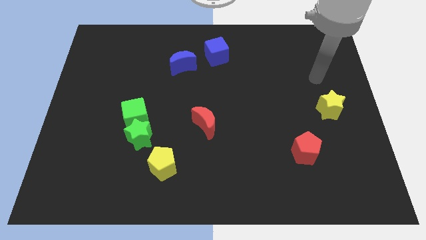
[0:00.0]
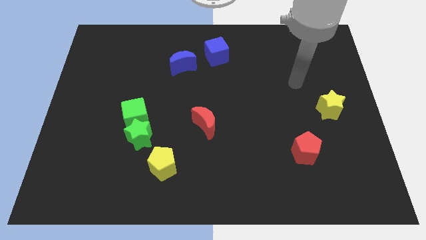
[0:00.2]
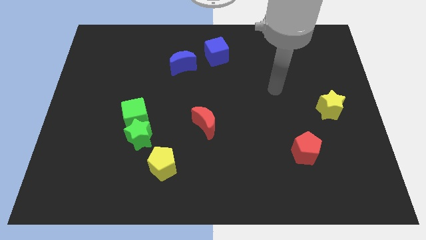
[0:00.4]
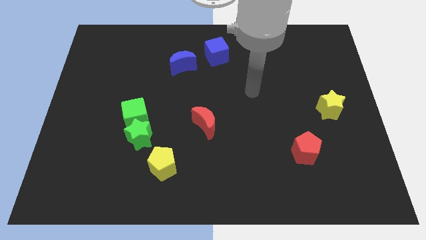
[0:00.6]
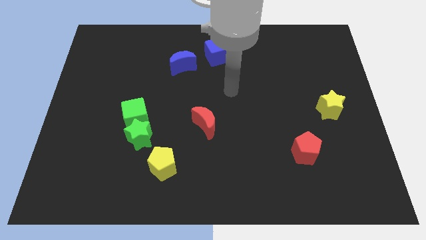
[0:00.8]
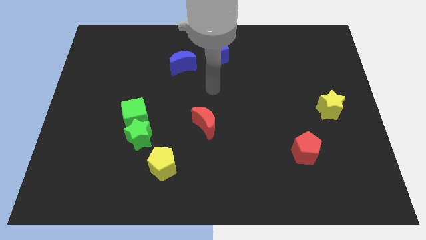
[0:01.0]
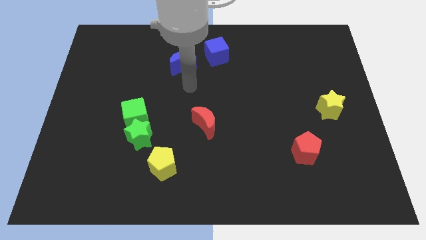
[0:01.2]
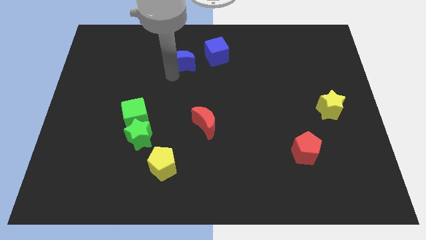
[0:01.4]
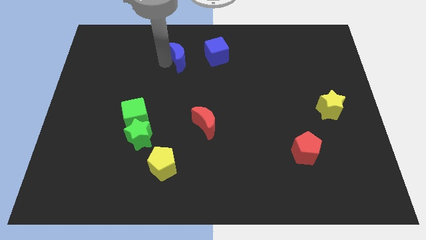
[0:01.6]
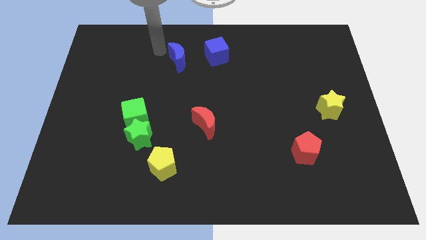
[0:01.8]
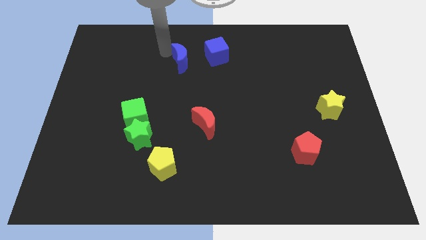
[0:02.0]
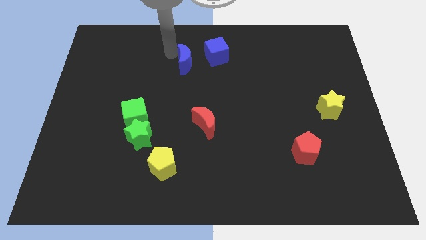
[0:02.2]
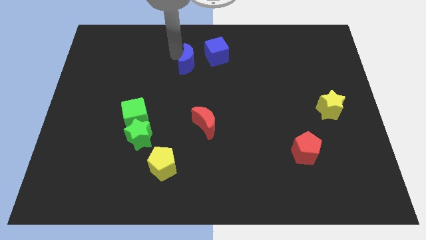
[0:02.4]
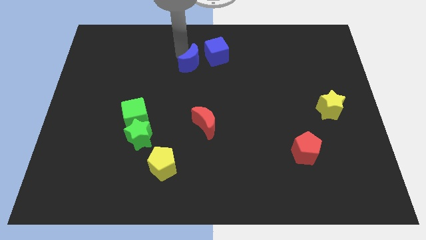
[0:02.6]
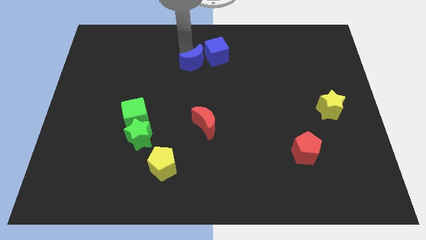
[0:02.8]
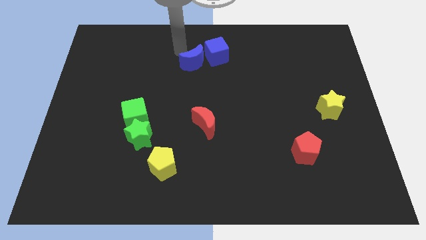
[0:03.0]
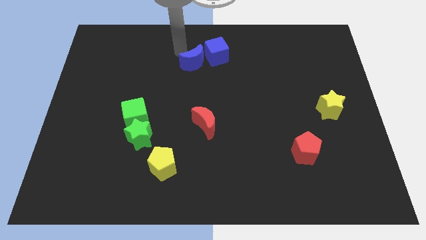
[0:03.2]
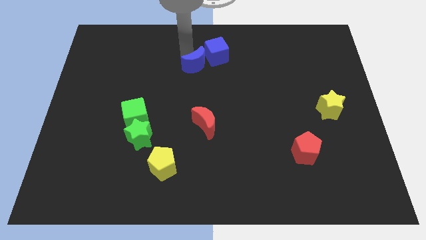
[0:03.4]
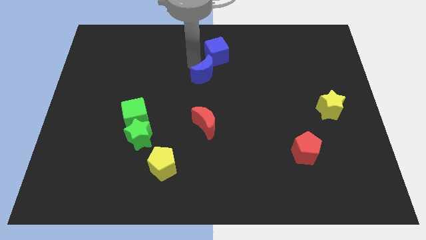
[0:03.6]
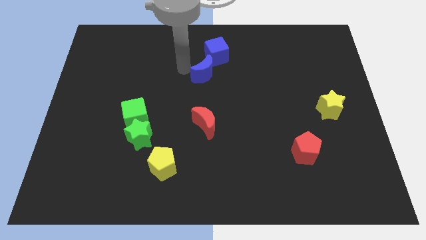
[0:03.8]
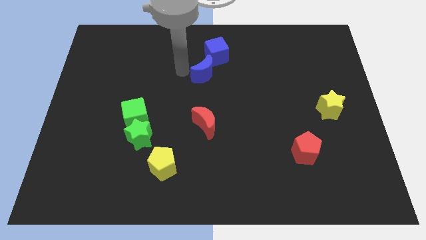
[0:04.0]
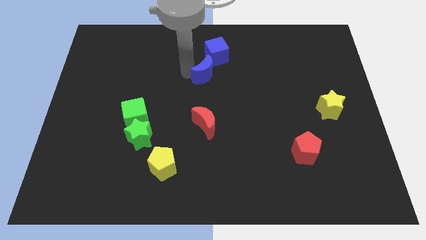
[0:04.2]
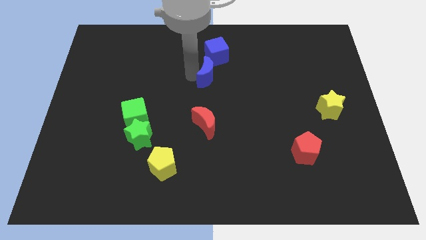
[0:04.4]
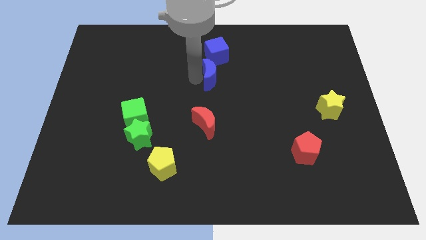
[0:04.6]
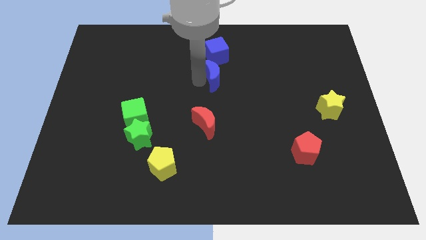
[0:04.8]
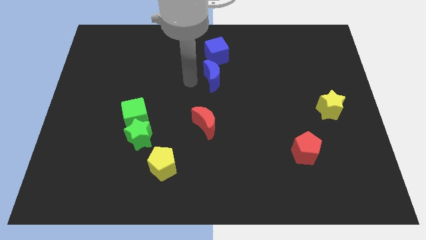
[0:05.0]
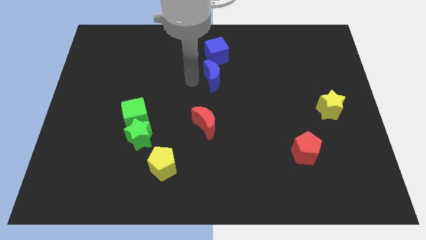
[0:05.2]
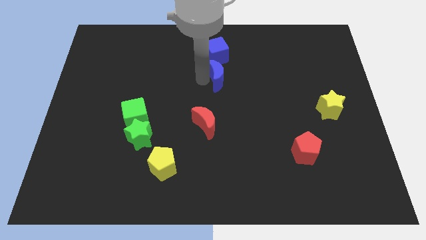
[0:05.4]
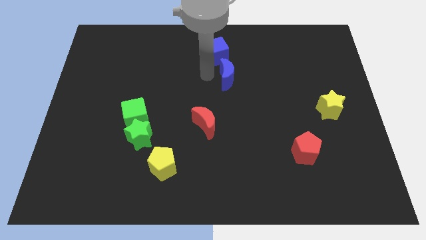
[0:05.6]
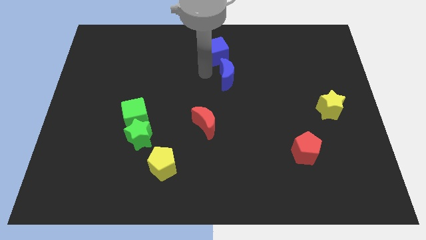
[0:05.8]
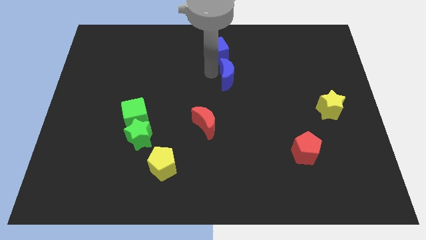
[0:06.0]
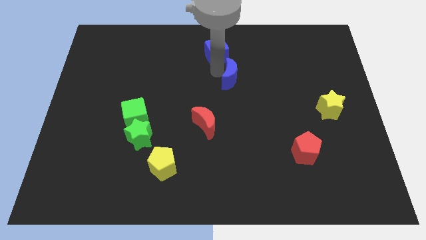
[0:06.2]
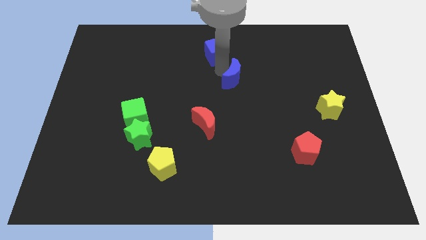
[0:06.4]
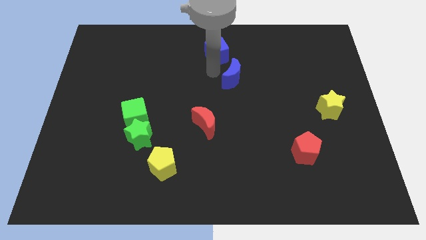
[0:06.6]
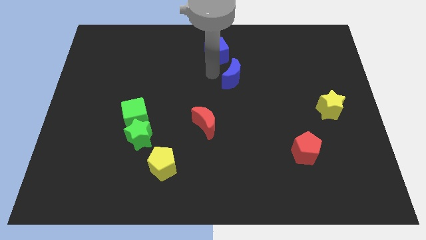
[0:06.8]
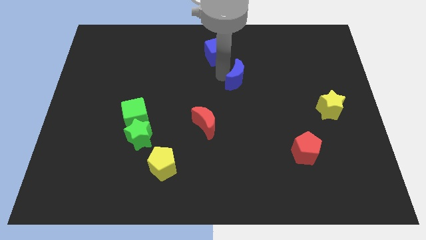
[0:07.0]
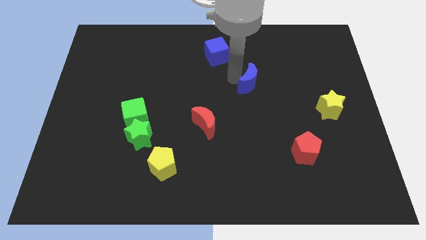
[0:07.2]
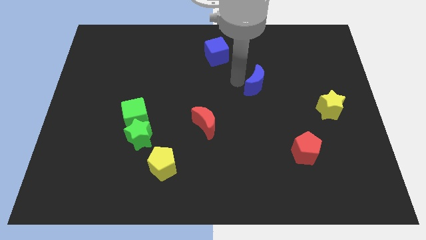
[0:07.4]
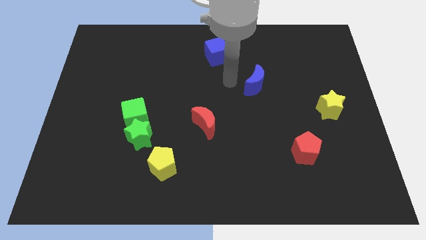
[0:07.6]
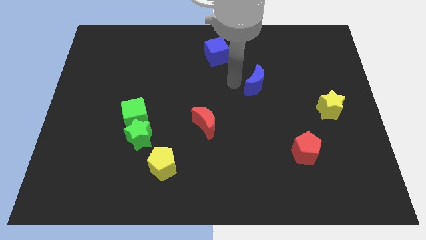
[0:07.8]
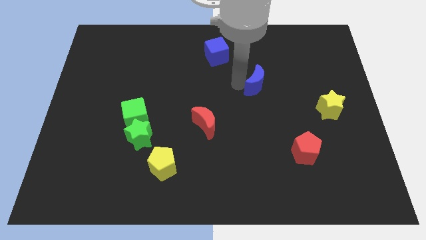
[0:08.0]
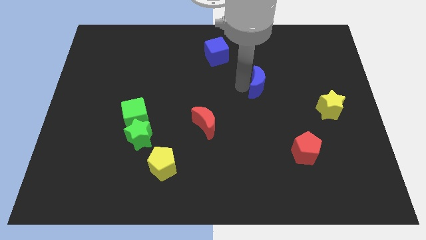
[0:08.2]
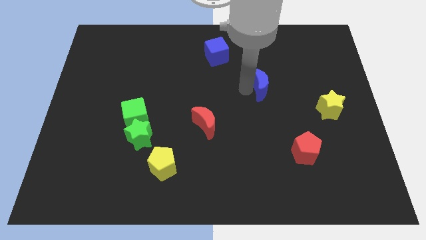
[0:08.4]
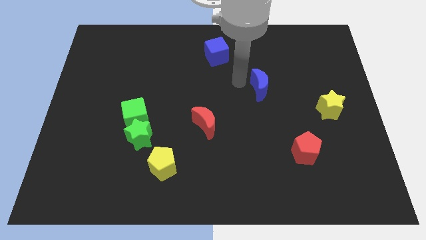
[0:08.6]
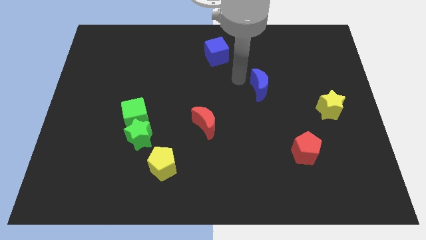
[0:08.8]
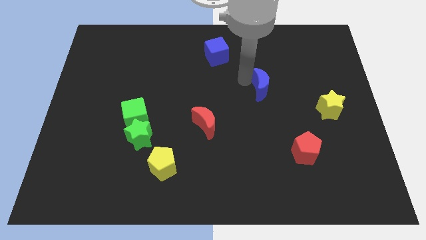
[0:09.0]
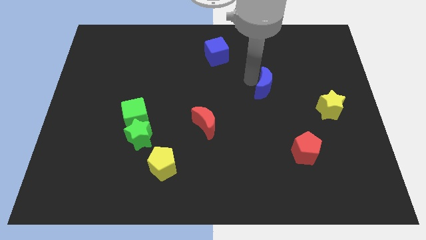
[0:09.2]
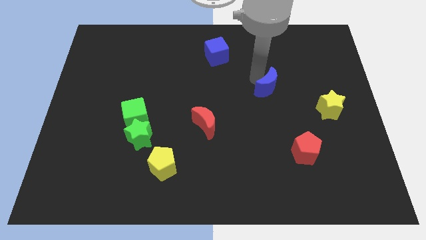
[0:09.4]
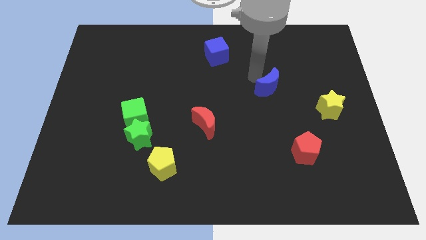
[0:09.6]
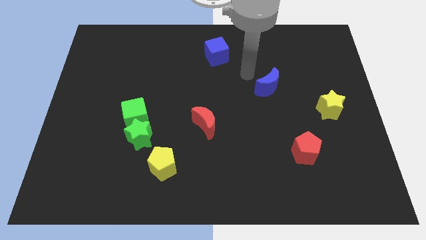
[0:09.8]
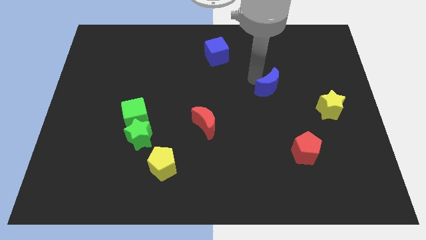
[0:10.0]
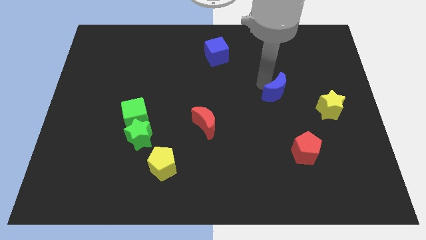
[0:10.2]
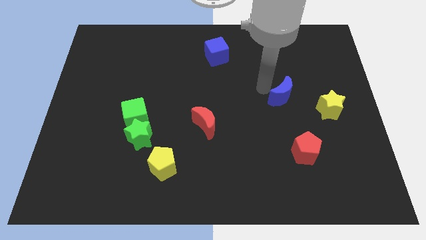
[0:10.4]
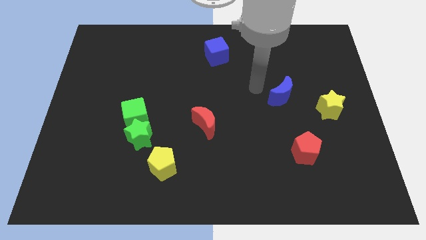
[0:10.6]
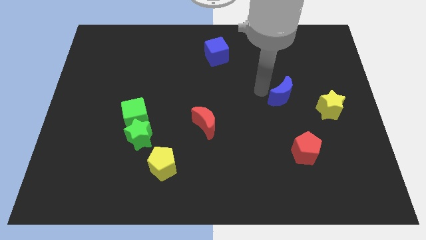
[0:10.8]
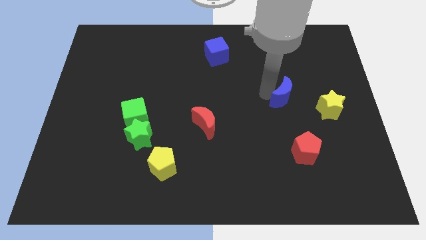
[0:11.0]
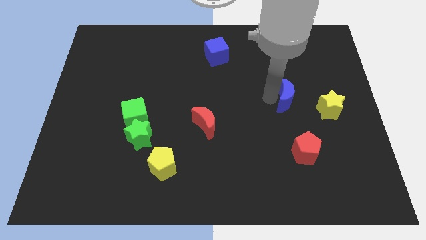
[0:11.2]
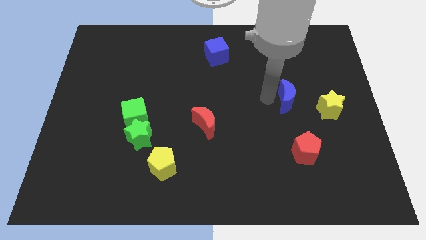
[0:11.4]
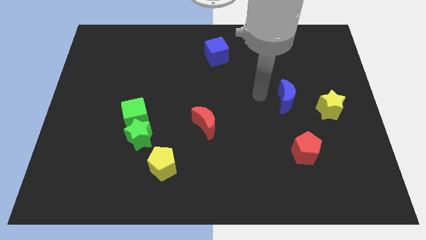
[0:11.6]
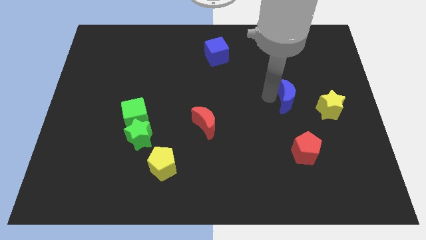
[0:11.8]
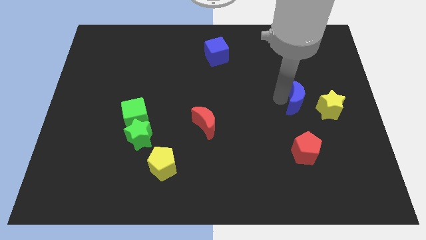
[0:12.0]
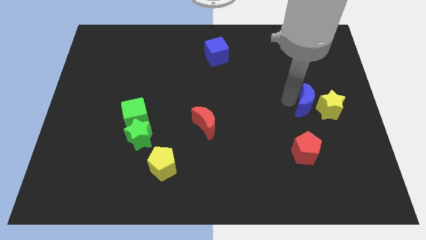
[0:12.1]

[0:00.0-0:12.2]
slide the blue moon towards the yellow star

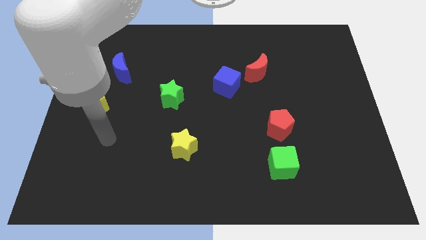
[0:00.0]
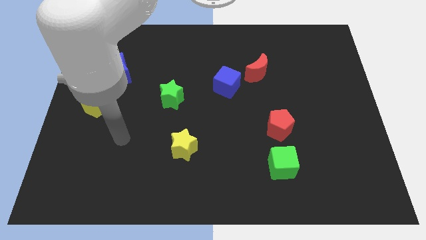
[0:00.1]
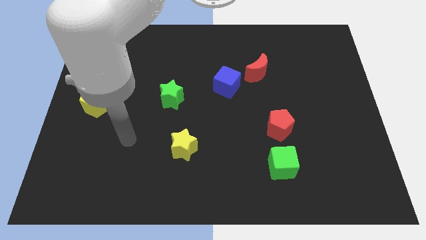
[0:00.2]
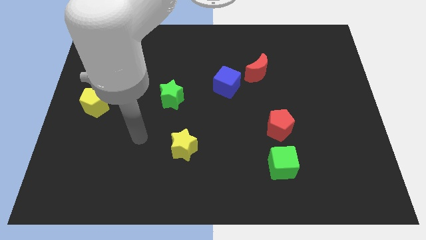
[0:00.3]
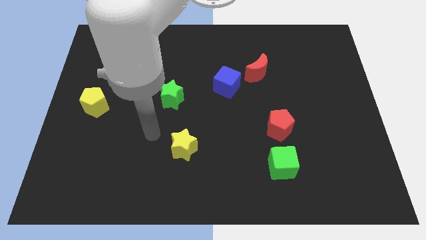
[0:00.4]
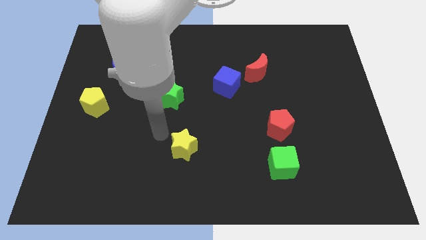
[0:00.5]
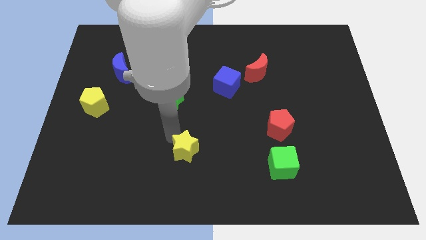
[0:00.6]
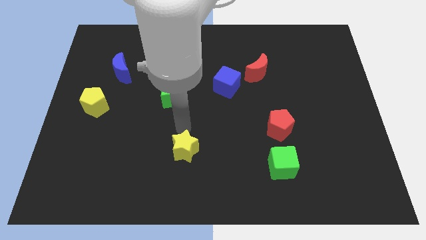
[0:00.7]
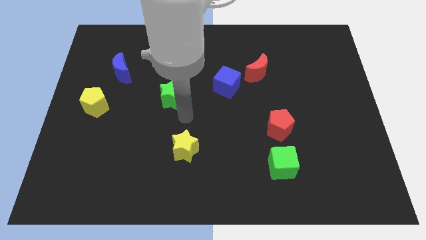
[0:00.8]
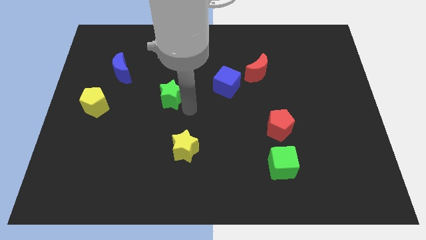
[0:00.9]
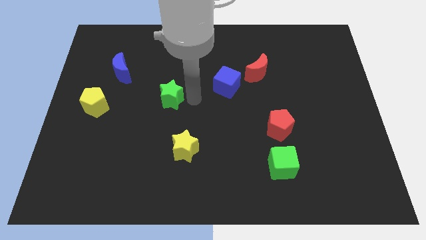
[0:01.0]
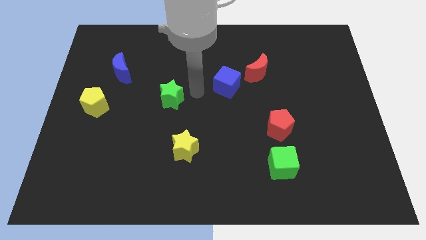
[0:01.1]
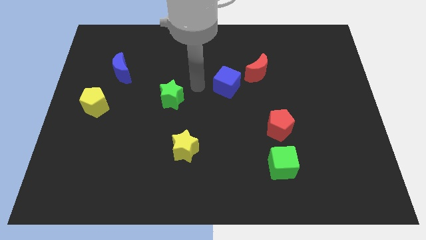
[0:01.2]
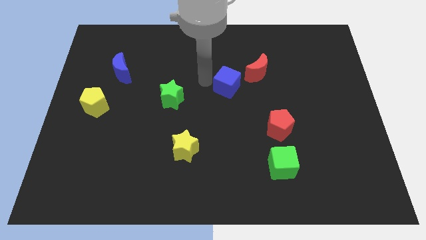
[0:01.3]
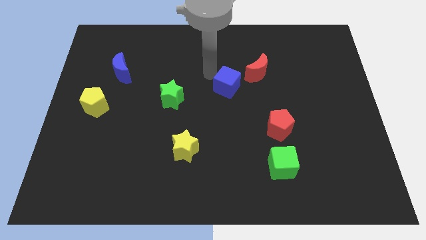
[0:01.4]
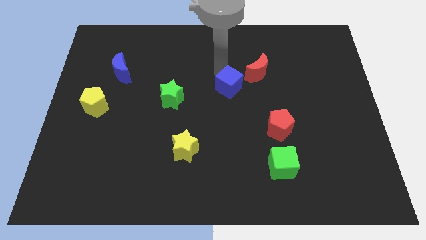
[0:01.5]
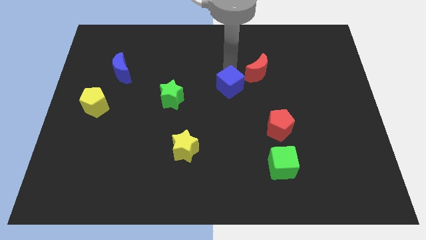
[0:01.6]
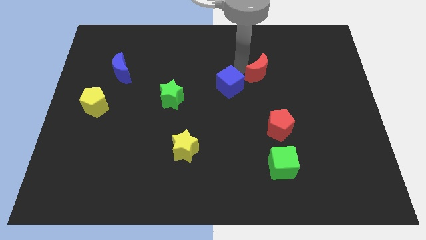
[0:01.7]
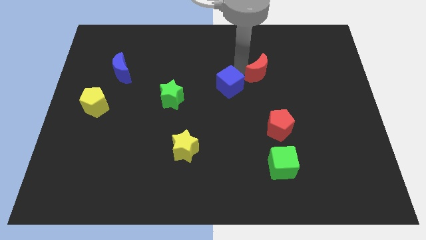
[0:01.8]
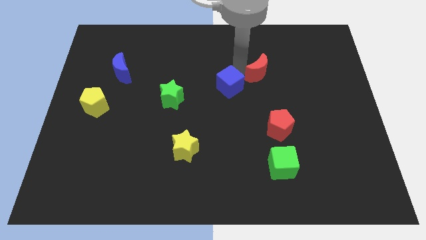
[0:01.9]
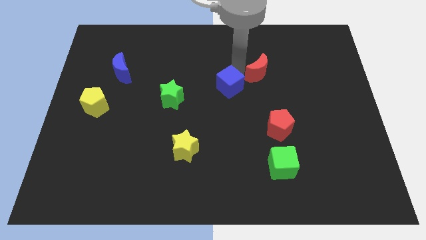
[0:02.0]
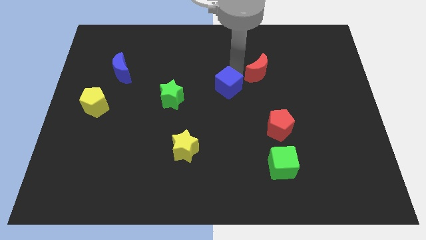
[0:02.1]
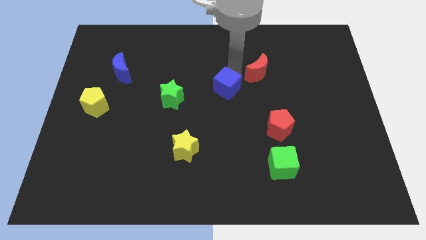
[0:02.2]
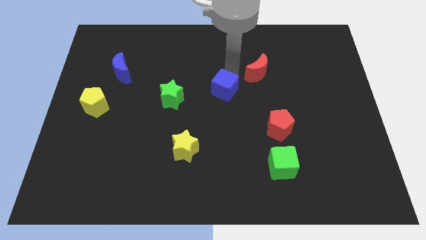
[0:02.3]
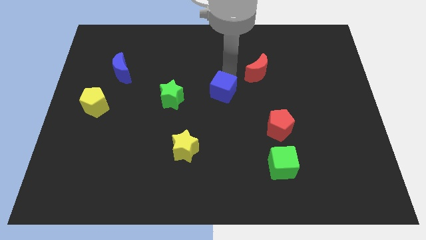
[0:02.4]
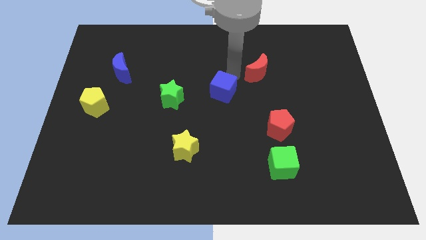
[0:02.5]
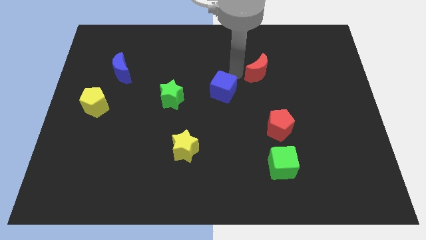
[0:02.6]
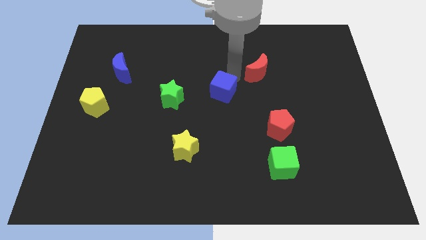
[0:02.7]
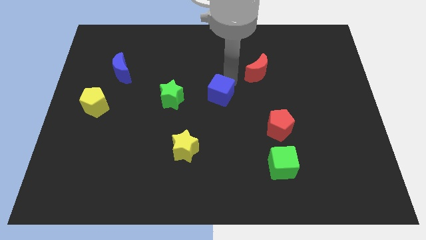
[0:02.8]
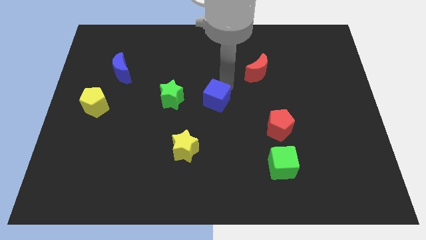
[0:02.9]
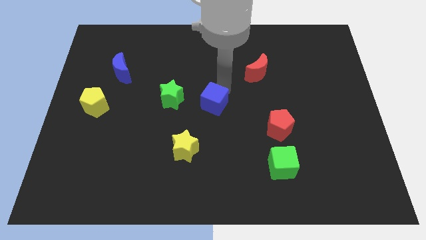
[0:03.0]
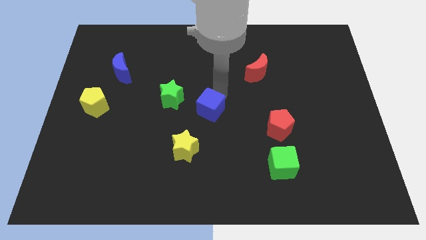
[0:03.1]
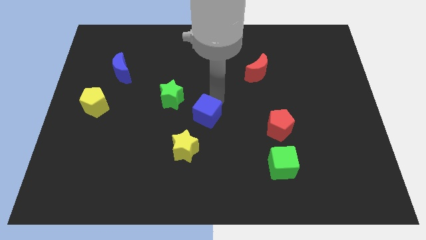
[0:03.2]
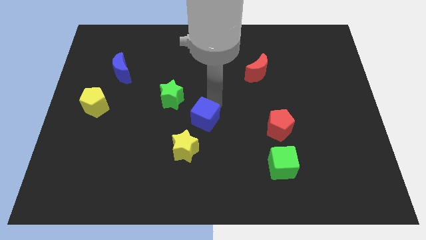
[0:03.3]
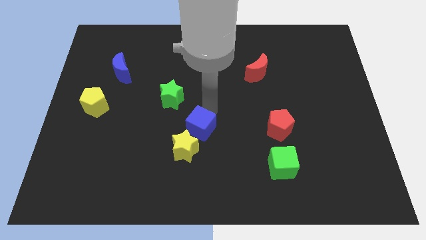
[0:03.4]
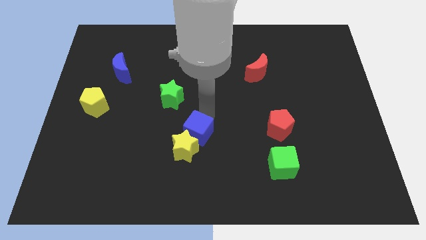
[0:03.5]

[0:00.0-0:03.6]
put the blue cube close to the yellow star
